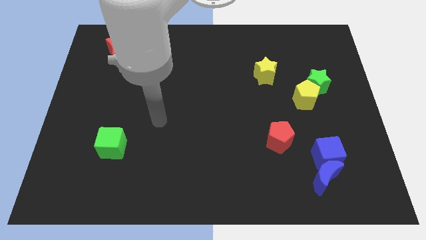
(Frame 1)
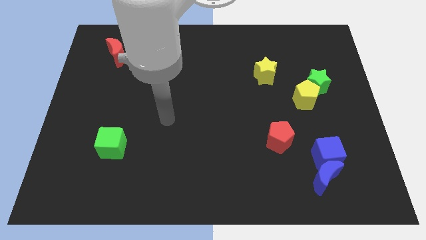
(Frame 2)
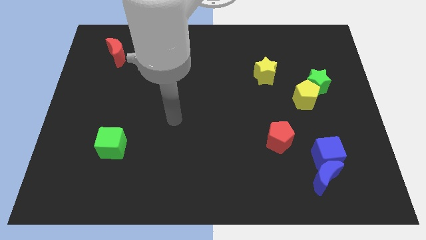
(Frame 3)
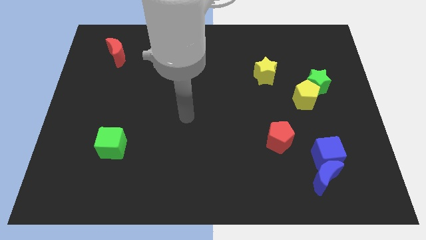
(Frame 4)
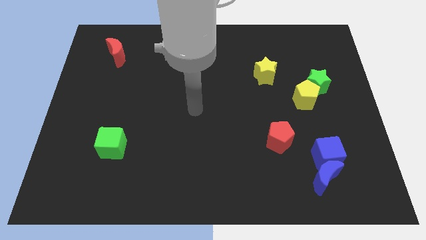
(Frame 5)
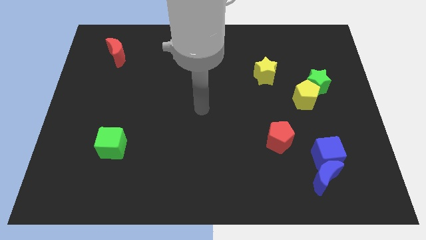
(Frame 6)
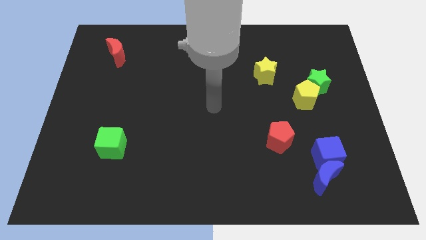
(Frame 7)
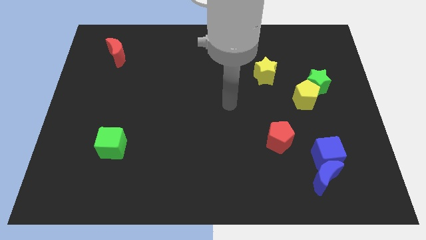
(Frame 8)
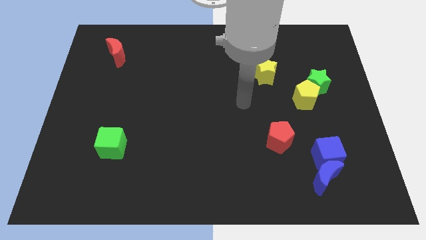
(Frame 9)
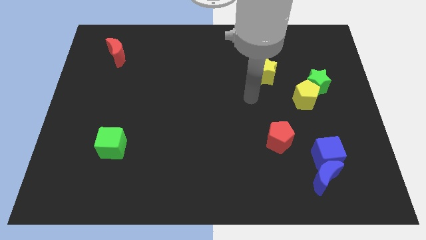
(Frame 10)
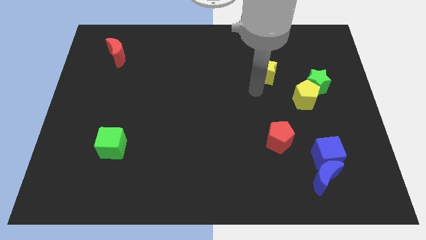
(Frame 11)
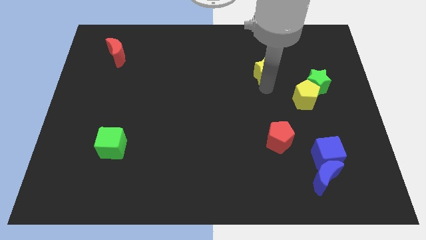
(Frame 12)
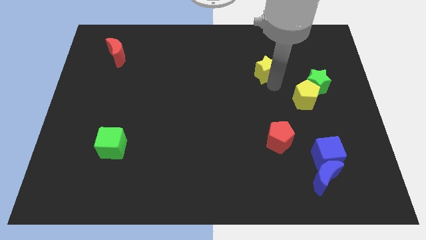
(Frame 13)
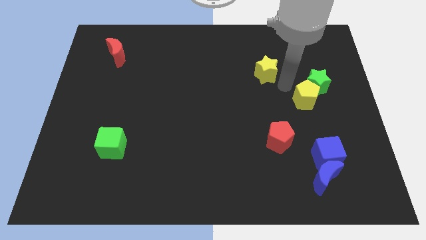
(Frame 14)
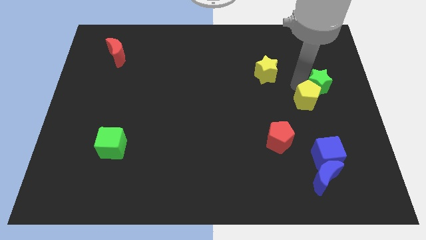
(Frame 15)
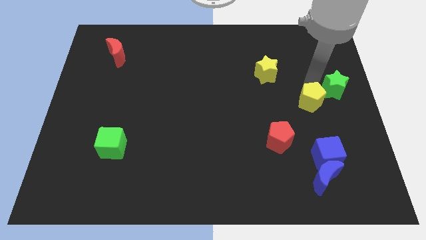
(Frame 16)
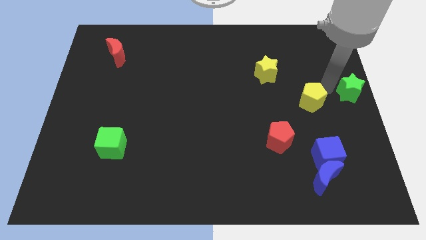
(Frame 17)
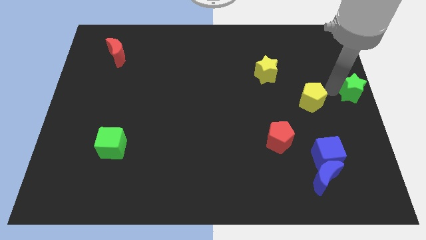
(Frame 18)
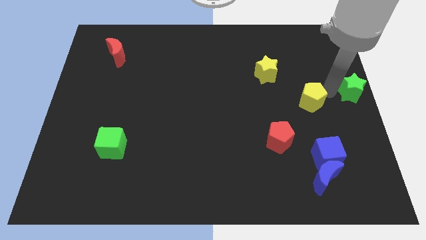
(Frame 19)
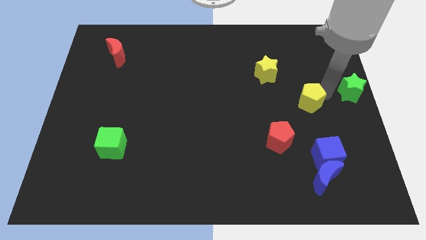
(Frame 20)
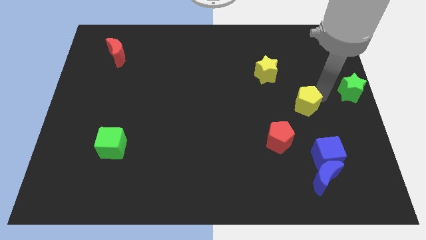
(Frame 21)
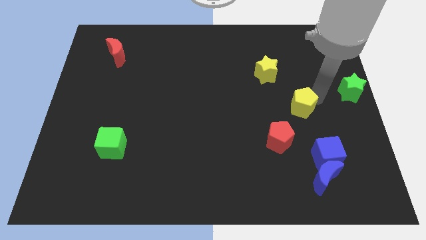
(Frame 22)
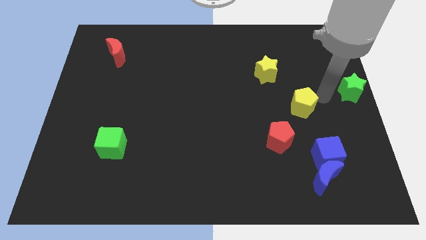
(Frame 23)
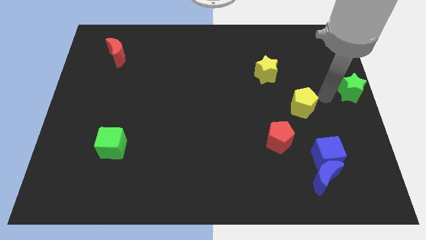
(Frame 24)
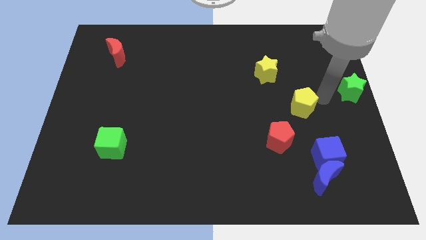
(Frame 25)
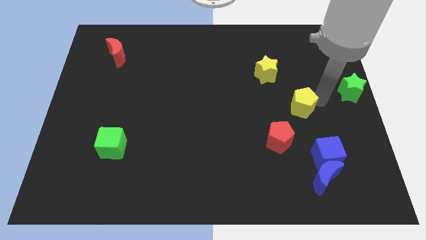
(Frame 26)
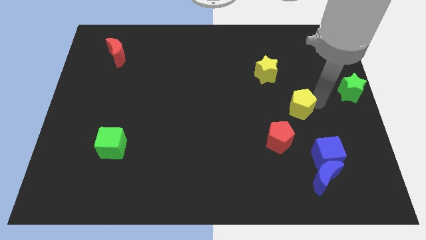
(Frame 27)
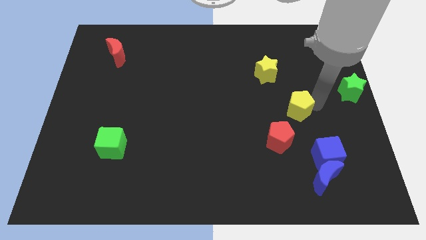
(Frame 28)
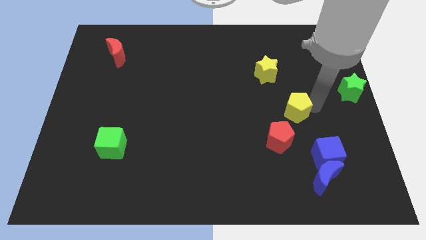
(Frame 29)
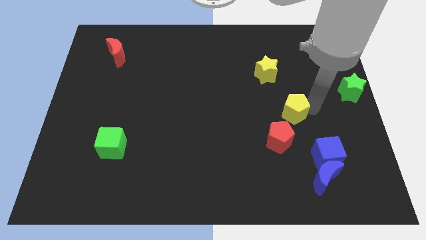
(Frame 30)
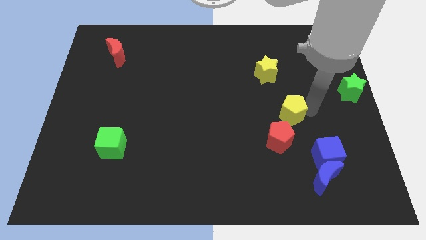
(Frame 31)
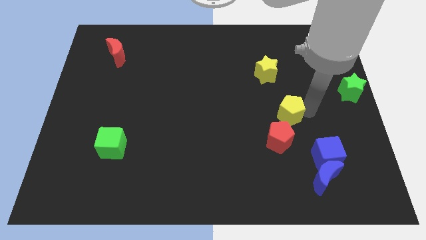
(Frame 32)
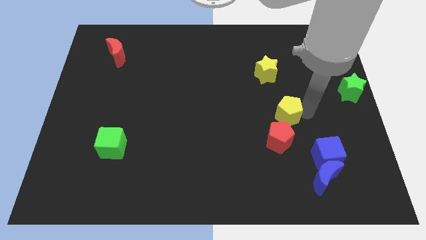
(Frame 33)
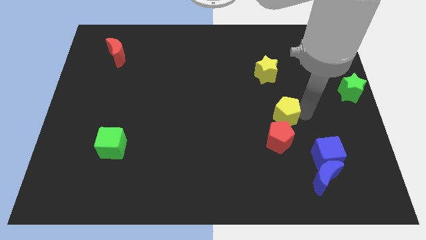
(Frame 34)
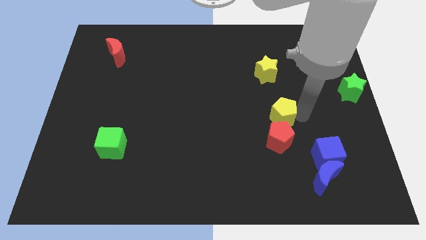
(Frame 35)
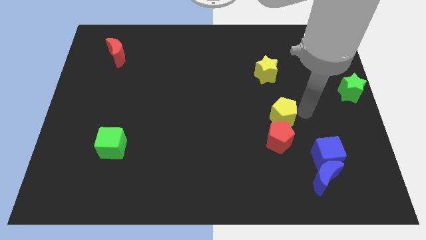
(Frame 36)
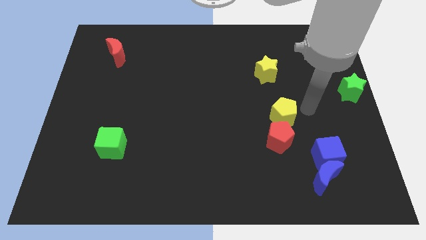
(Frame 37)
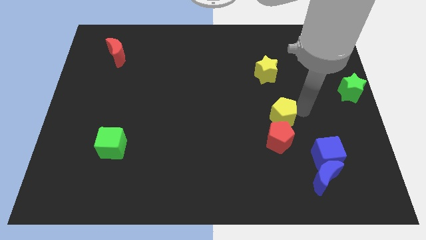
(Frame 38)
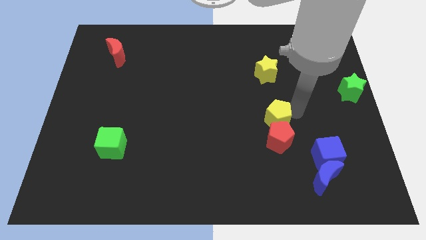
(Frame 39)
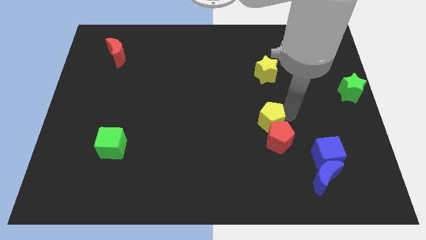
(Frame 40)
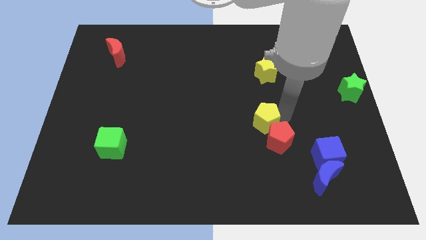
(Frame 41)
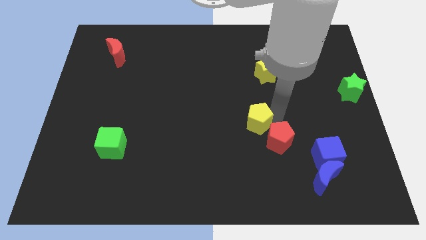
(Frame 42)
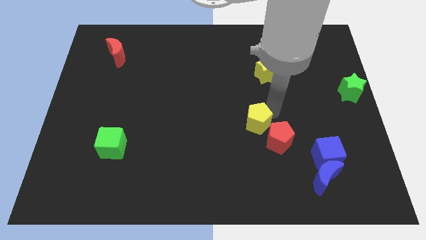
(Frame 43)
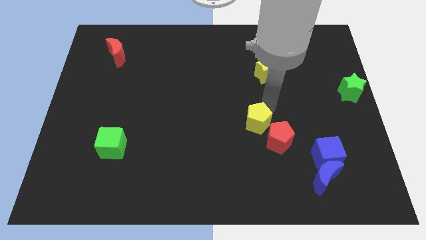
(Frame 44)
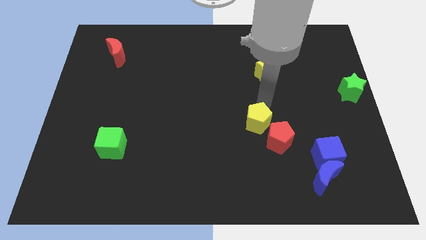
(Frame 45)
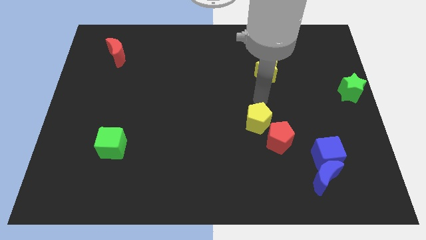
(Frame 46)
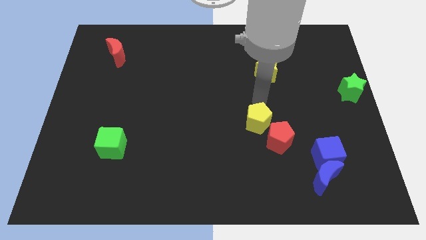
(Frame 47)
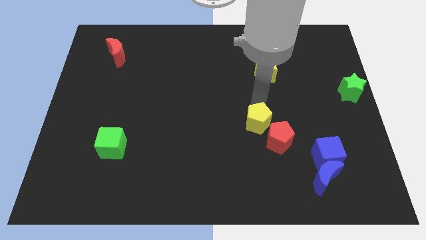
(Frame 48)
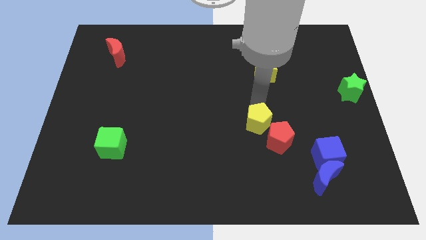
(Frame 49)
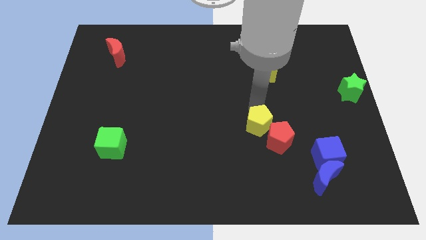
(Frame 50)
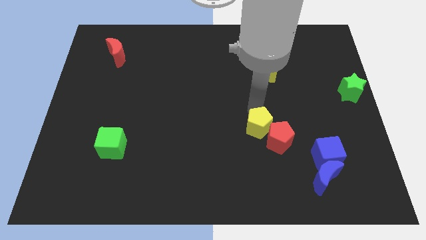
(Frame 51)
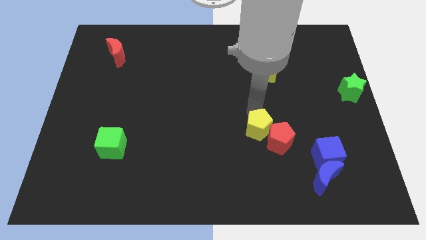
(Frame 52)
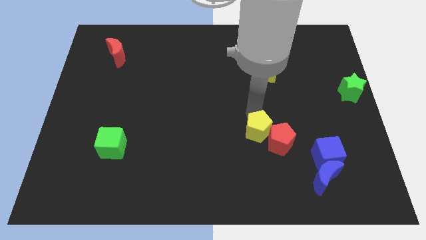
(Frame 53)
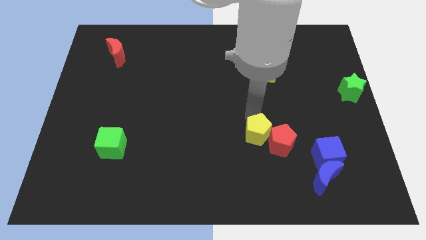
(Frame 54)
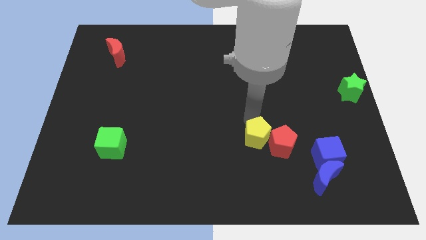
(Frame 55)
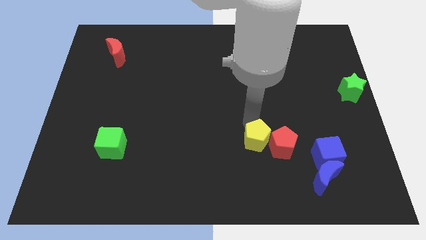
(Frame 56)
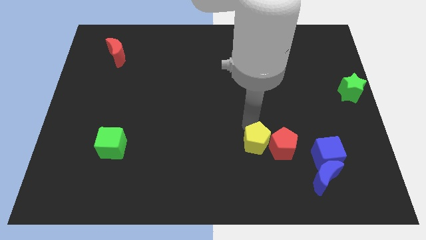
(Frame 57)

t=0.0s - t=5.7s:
put the yellow pentagon diagonally down and to the left of the red pentagon

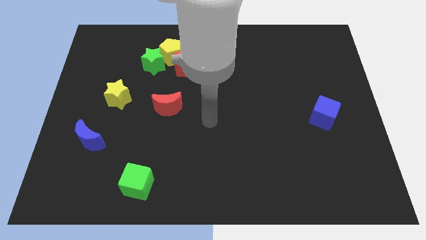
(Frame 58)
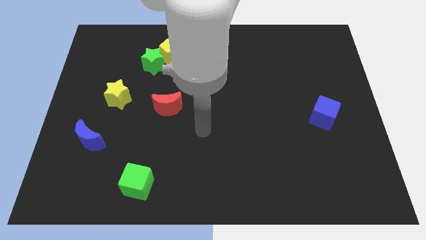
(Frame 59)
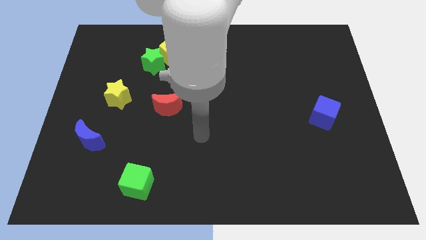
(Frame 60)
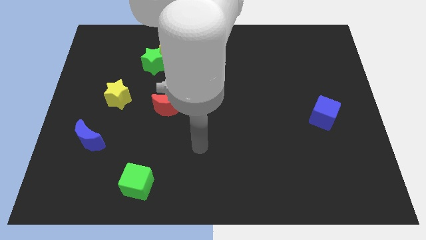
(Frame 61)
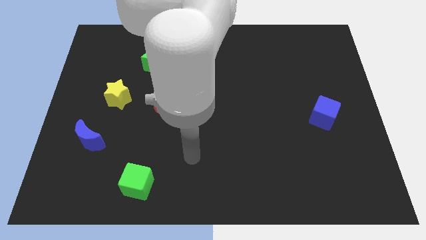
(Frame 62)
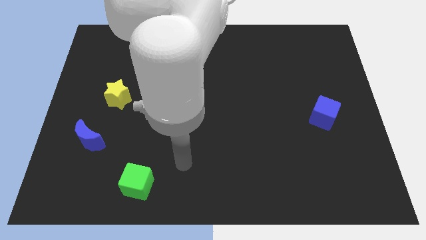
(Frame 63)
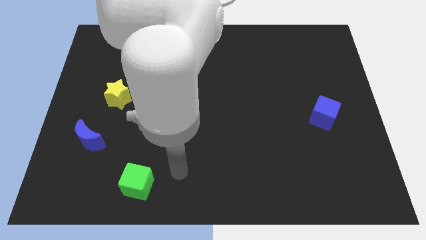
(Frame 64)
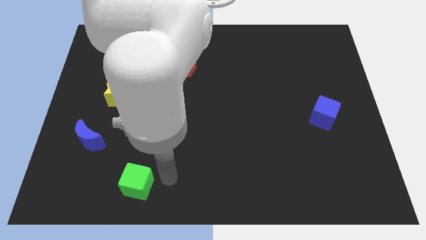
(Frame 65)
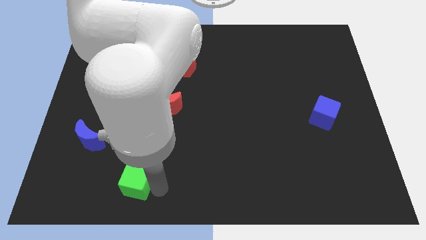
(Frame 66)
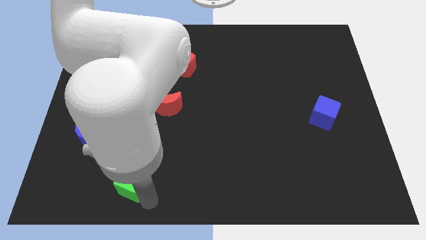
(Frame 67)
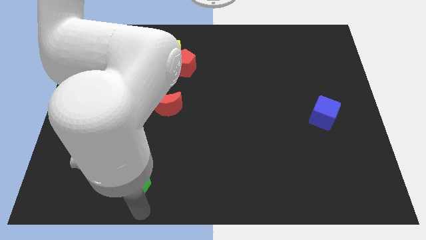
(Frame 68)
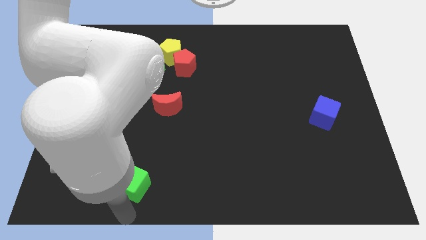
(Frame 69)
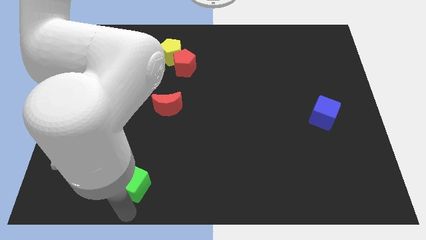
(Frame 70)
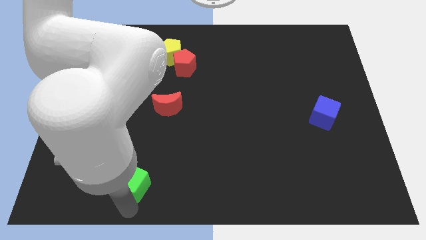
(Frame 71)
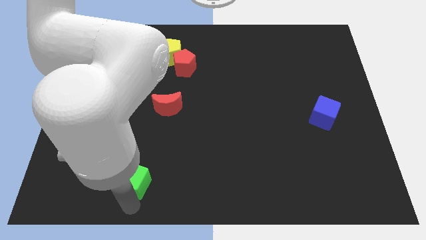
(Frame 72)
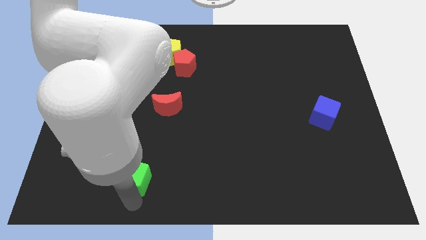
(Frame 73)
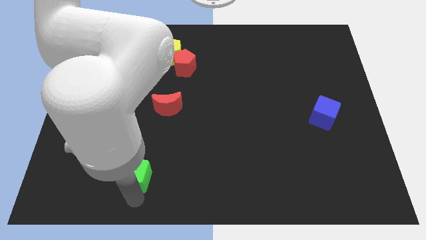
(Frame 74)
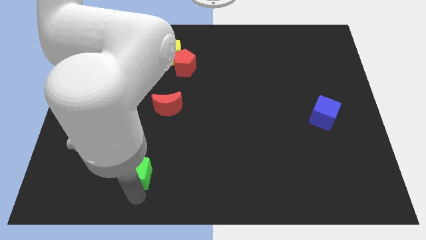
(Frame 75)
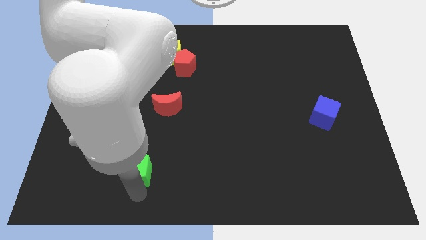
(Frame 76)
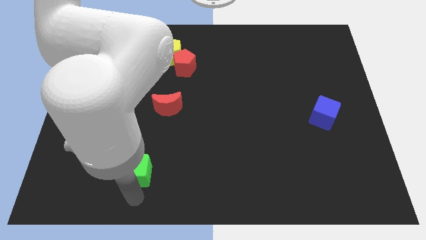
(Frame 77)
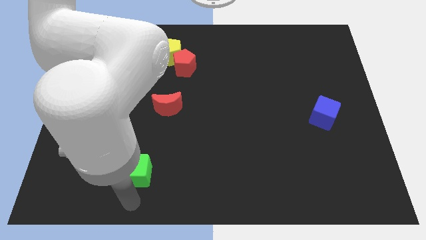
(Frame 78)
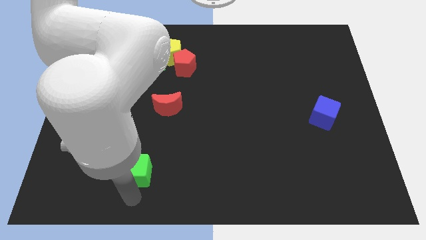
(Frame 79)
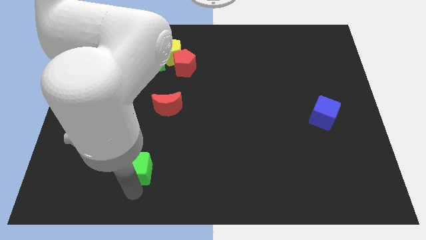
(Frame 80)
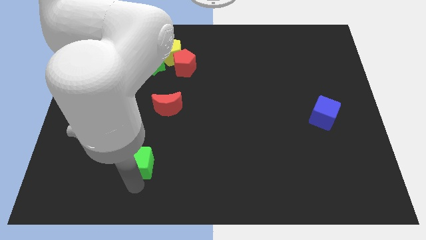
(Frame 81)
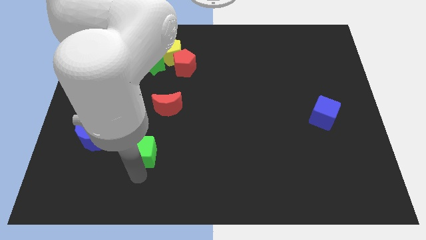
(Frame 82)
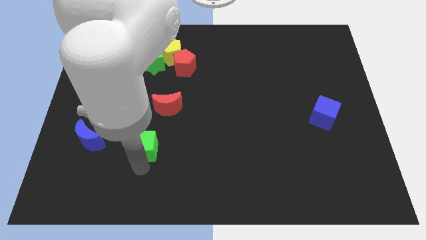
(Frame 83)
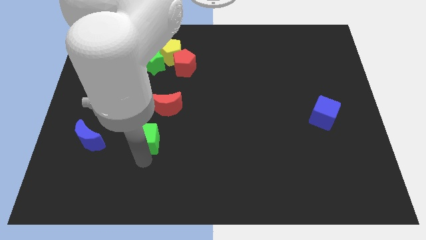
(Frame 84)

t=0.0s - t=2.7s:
move the green cube to the bottom left side of the red moon
